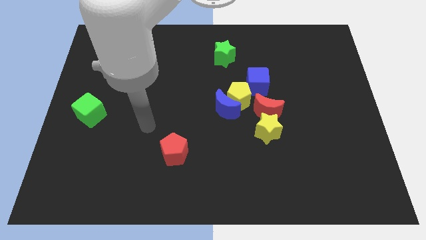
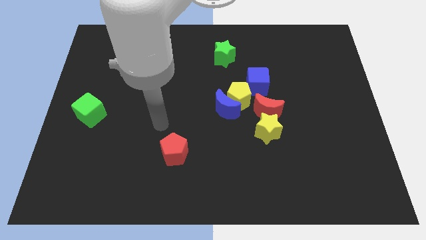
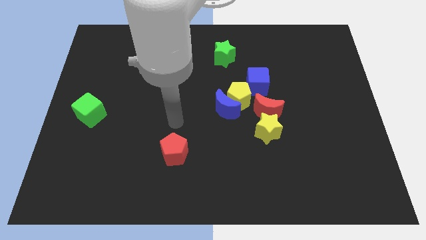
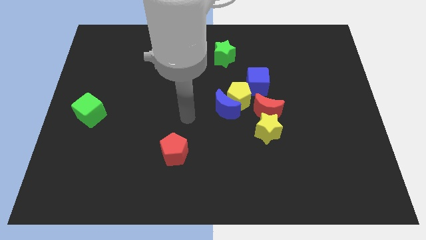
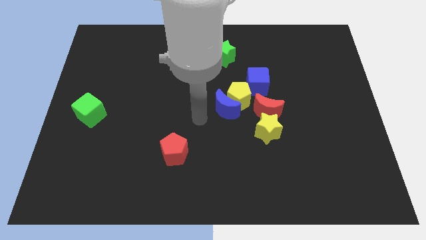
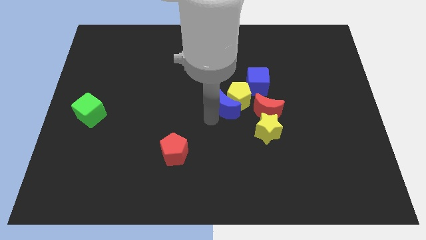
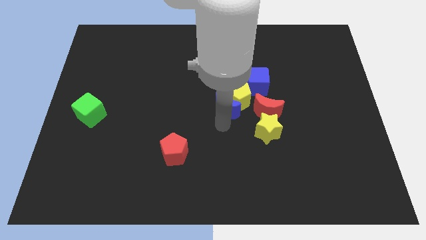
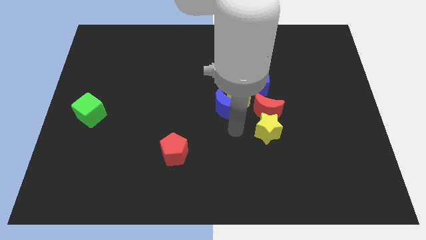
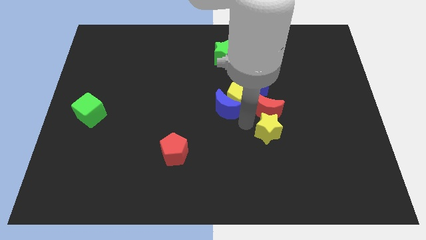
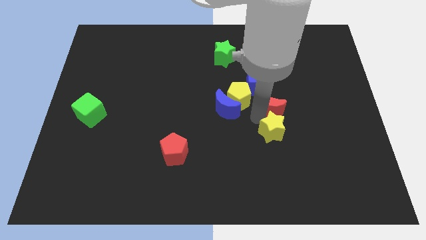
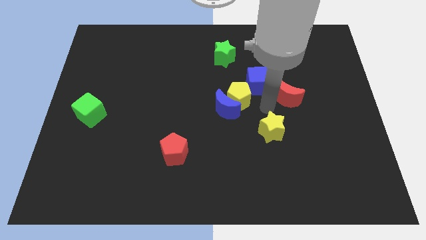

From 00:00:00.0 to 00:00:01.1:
move the yellow star away from the red moon

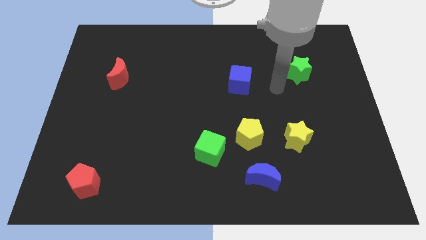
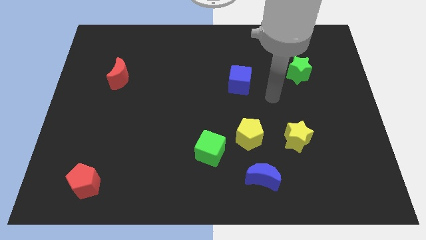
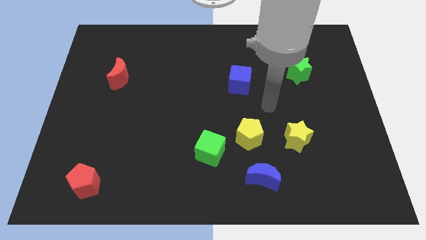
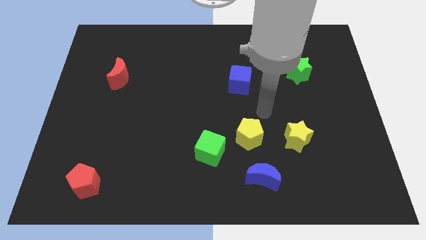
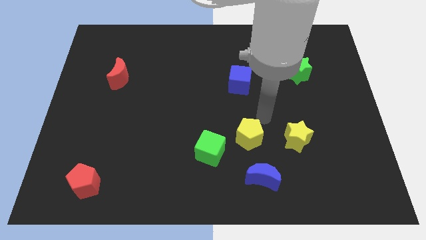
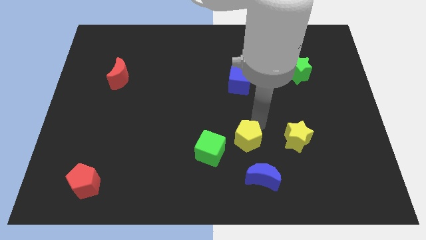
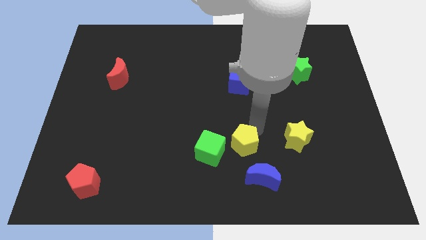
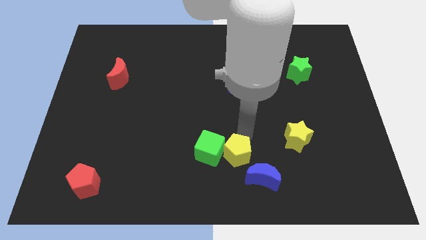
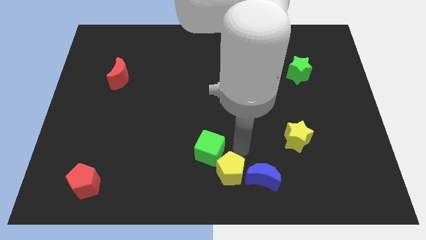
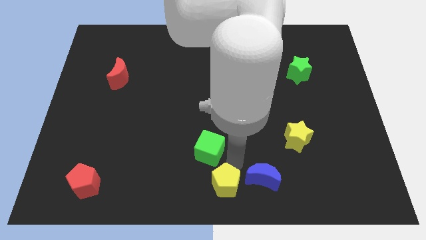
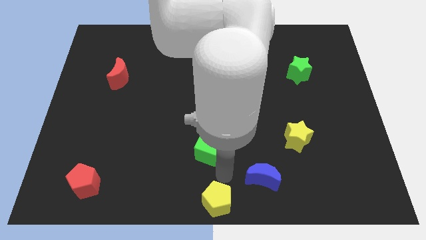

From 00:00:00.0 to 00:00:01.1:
separate the green cube from the yellow pentagon

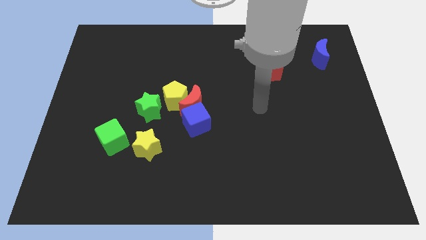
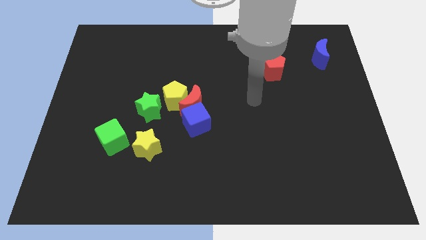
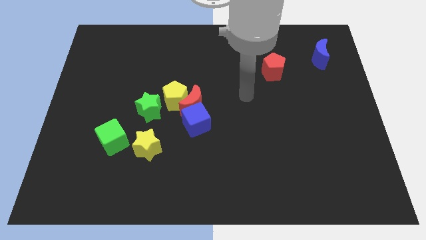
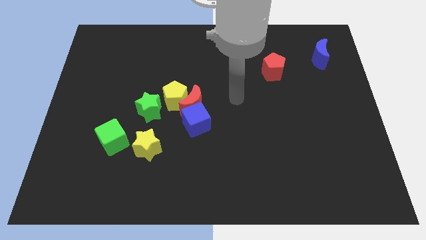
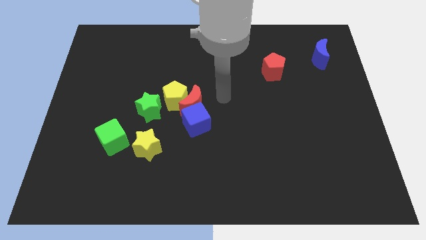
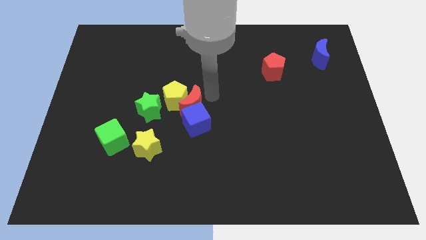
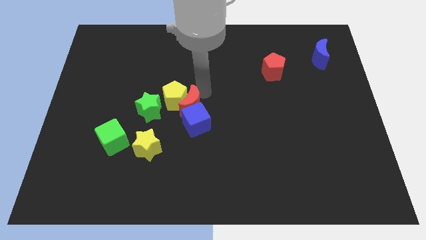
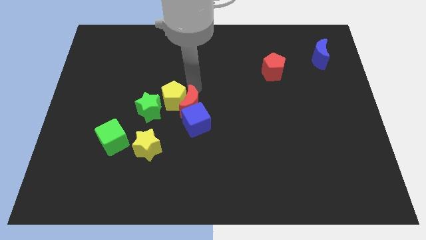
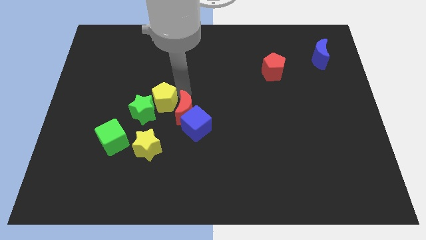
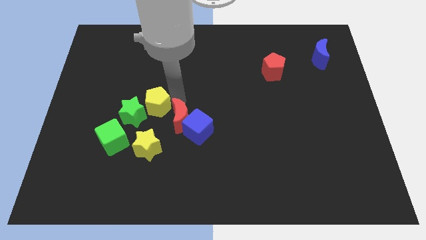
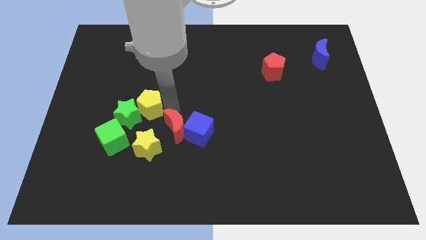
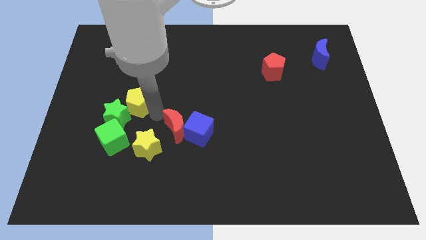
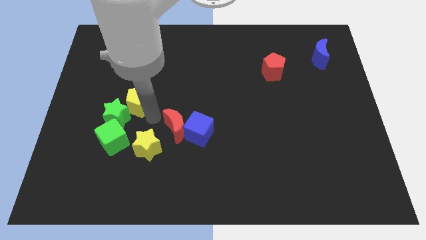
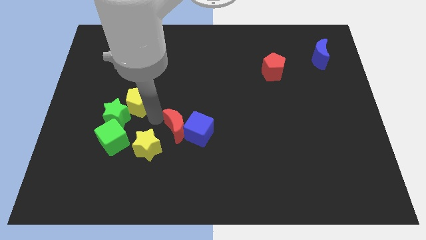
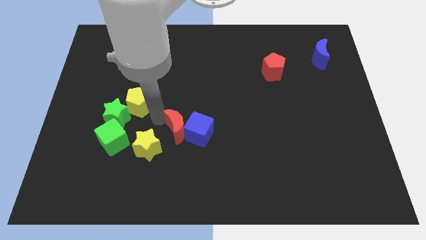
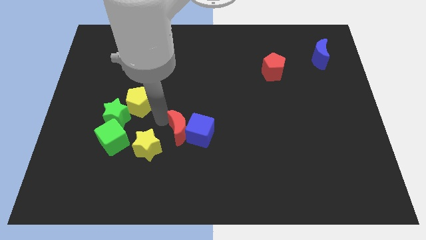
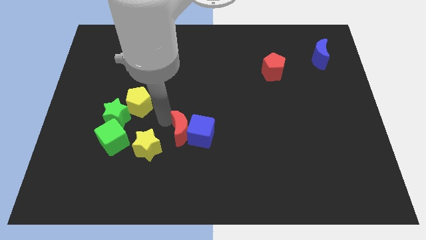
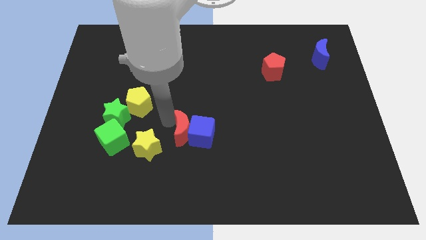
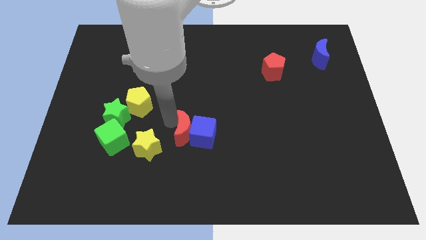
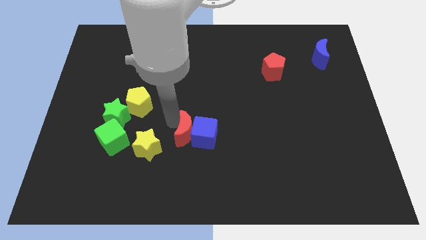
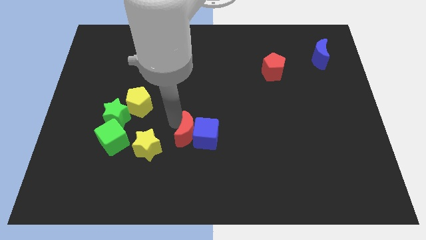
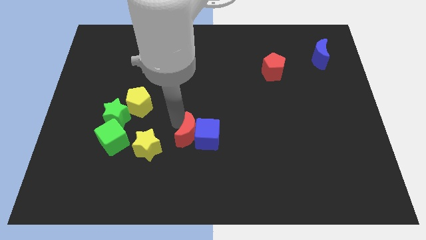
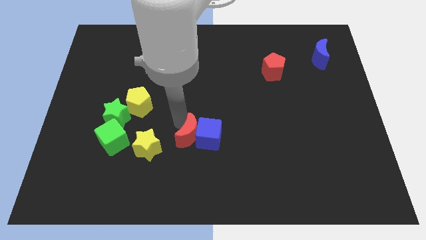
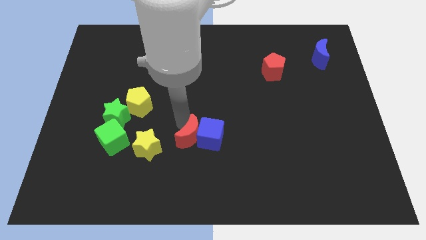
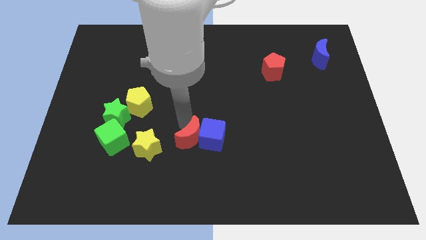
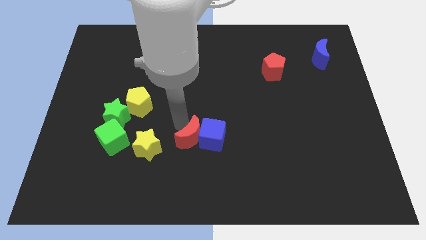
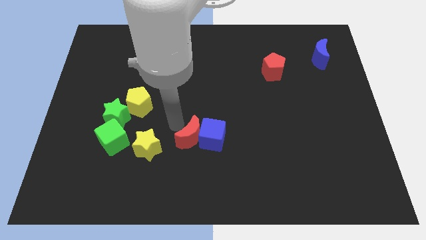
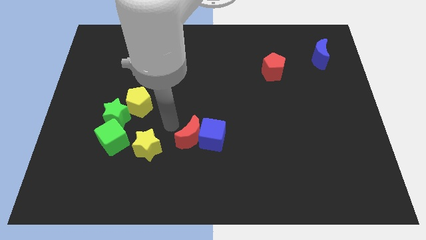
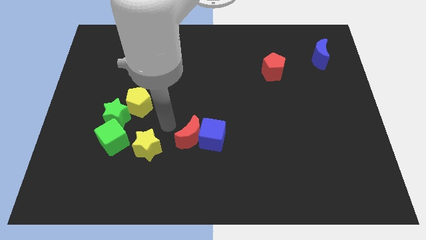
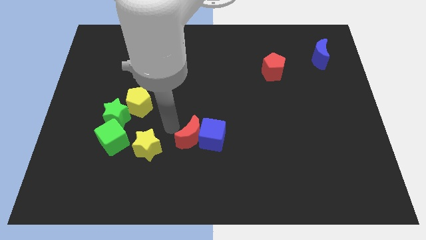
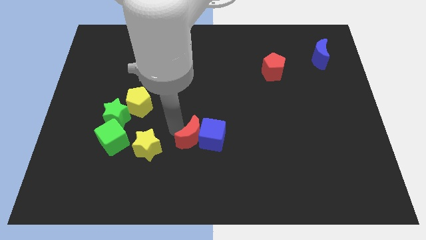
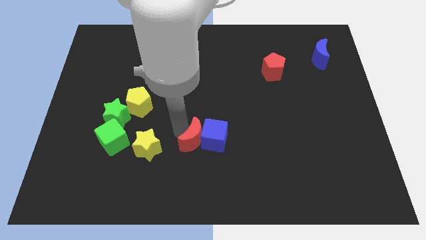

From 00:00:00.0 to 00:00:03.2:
pull the red moon apart from the clump

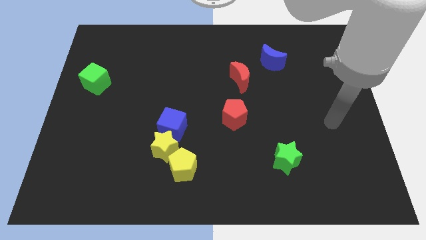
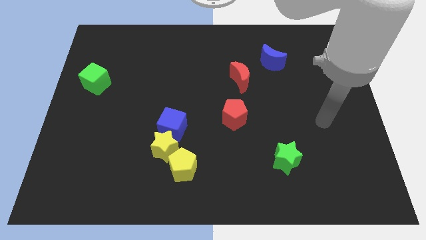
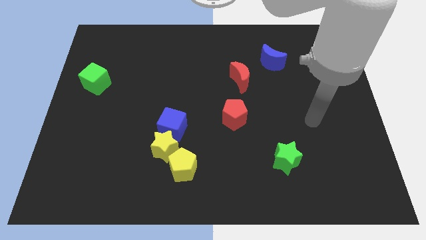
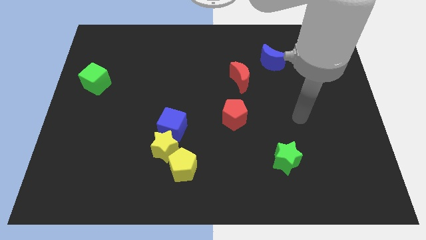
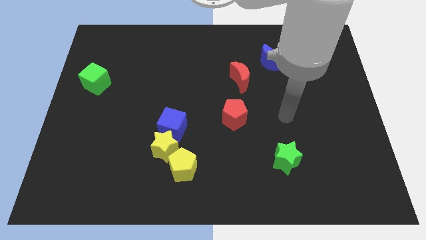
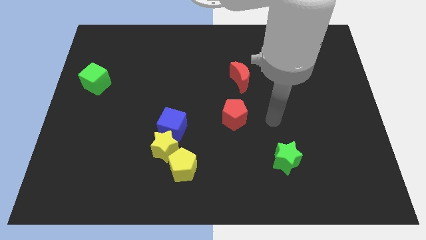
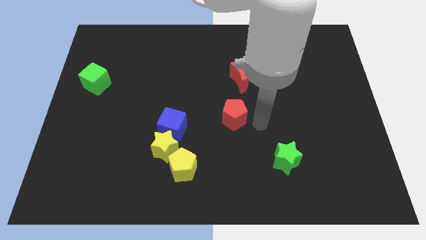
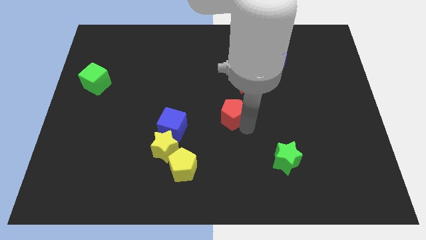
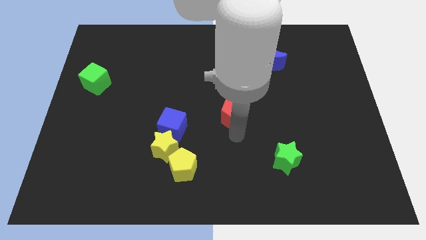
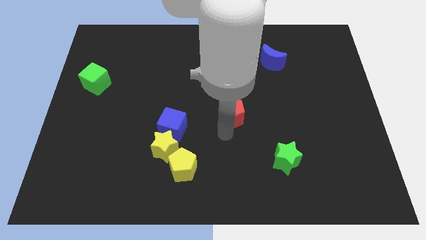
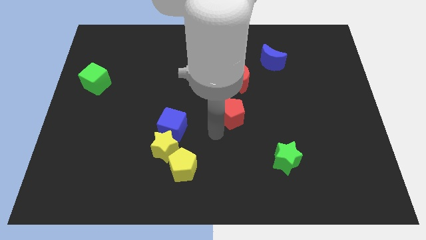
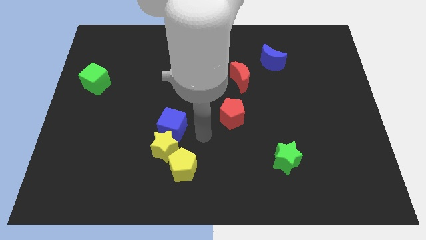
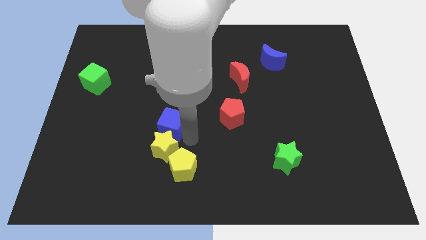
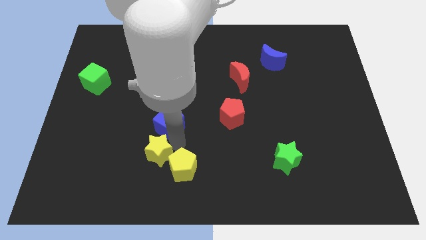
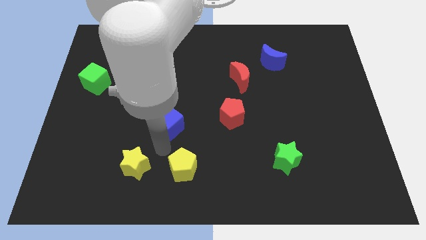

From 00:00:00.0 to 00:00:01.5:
pull the blue cube apart from the yellow star

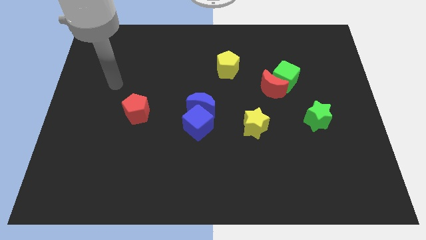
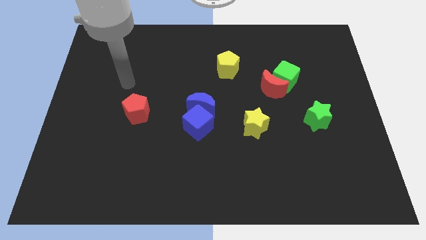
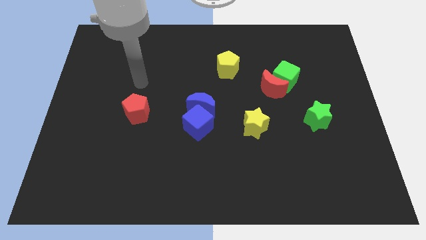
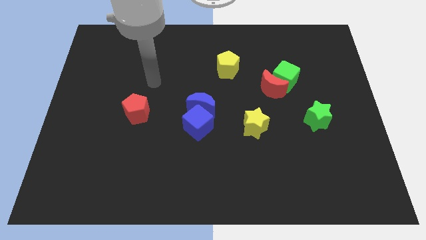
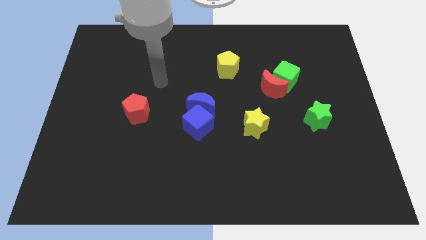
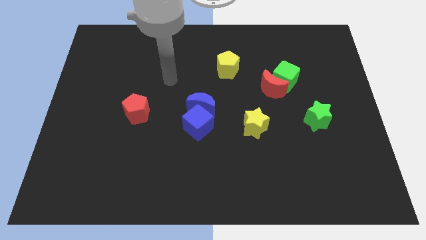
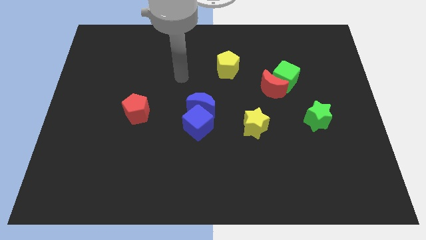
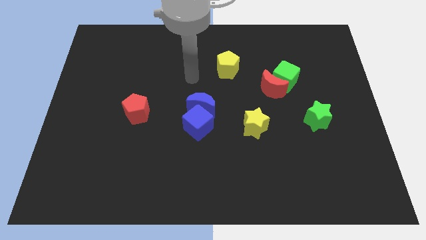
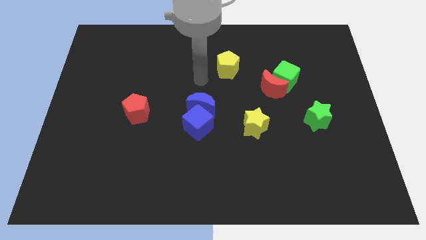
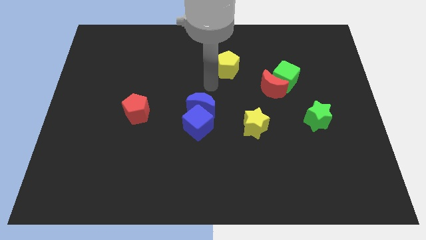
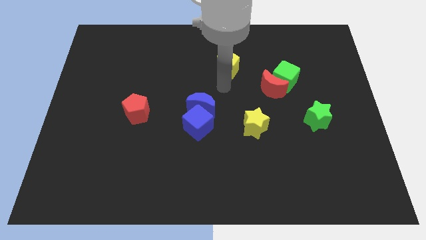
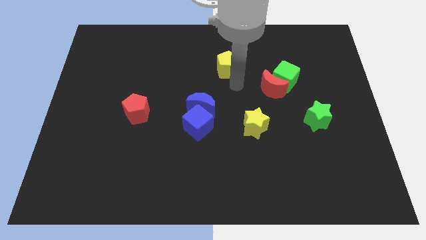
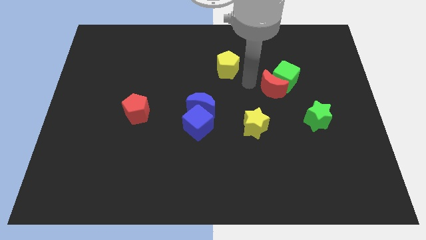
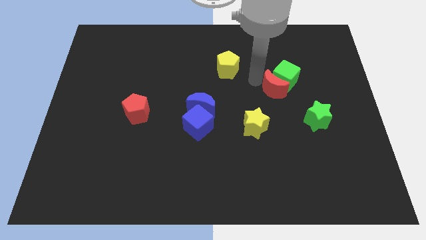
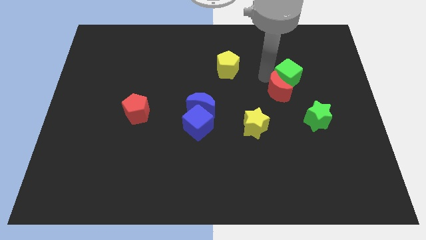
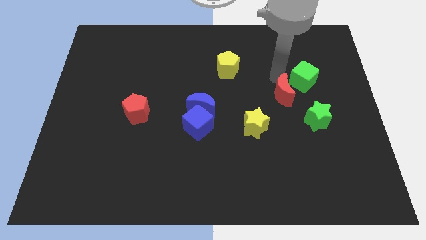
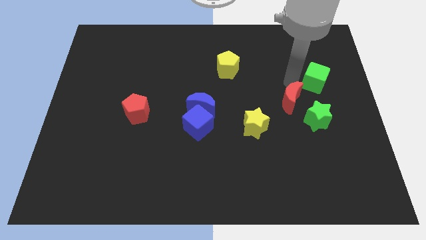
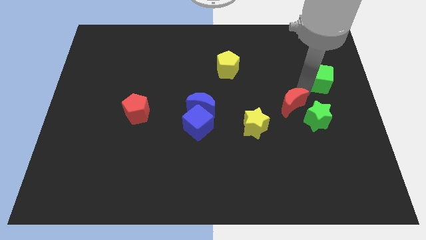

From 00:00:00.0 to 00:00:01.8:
move the red moon away from the green cube

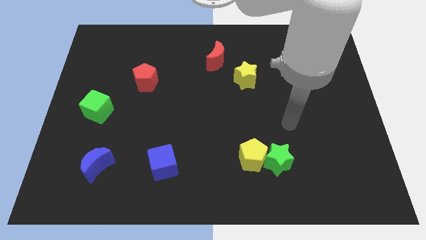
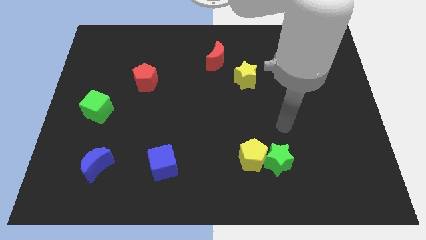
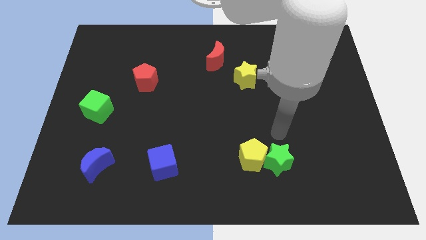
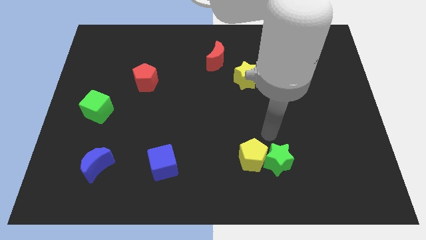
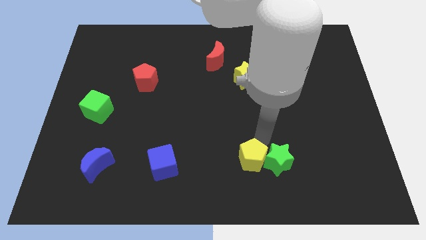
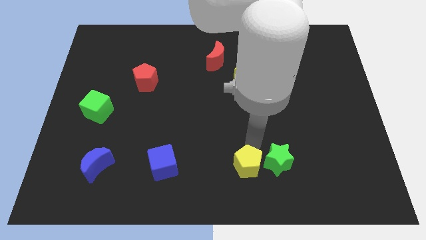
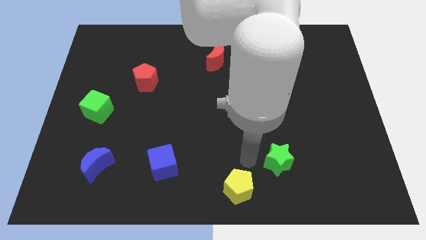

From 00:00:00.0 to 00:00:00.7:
separate the green star from the yellow pentagon
